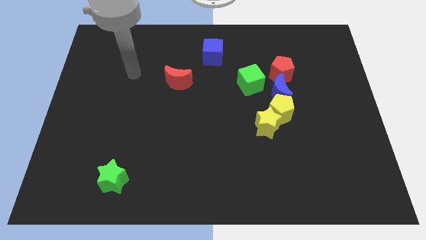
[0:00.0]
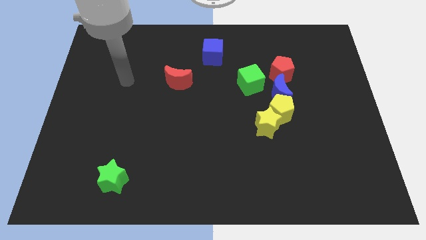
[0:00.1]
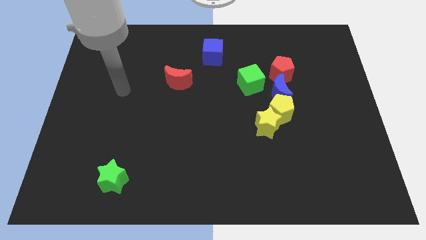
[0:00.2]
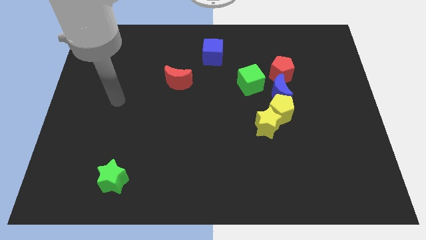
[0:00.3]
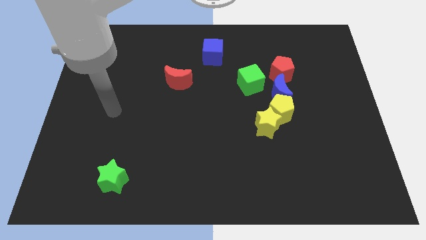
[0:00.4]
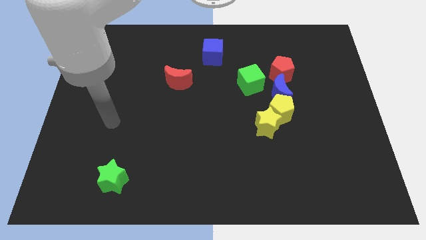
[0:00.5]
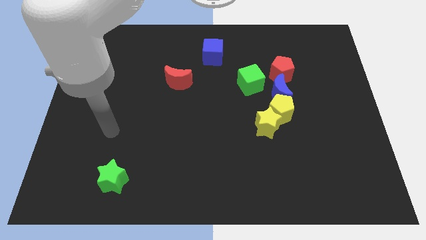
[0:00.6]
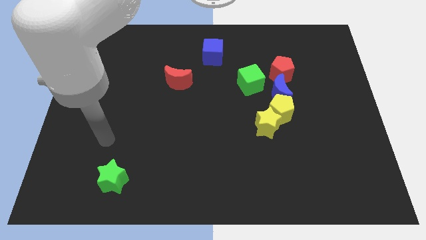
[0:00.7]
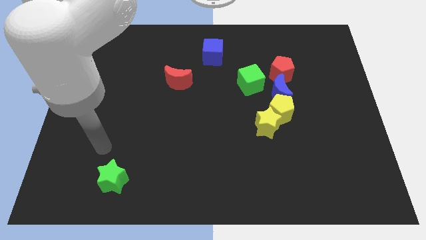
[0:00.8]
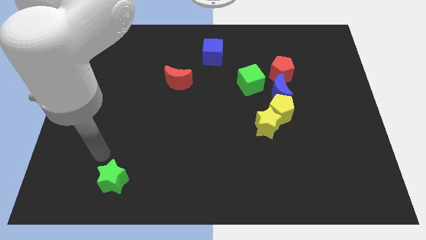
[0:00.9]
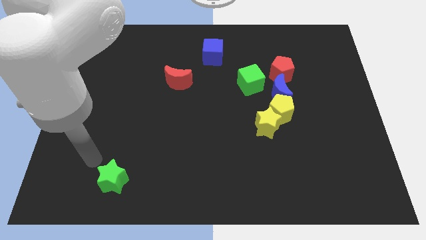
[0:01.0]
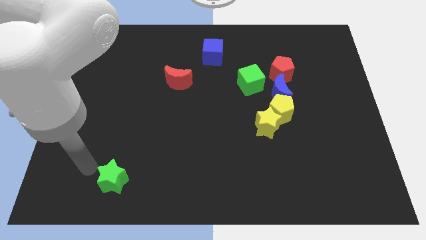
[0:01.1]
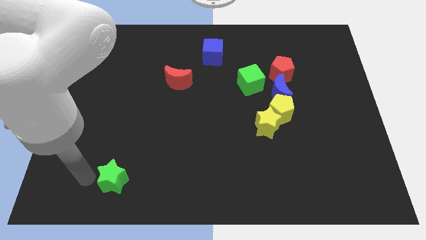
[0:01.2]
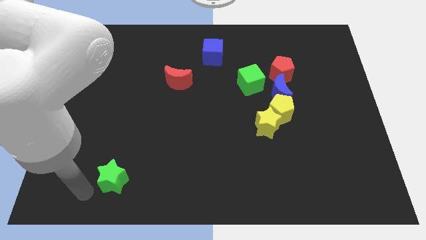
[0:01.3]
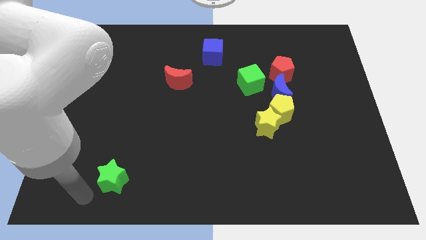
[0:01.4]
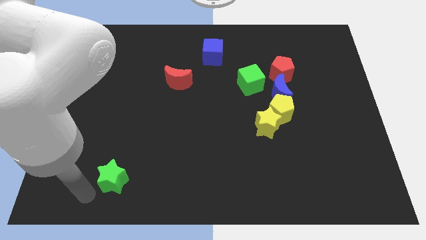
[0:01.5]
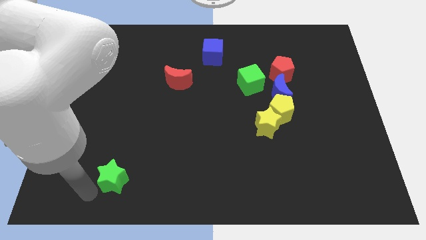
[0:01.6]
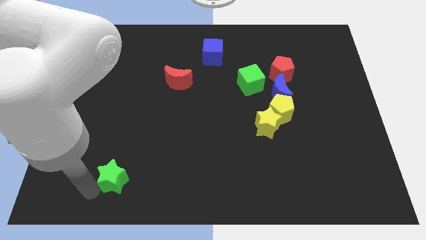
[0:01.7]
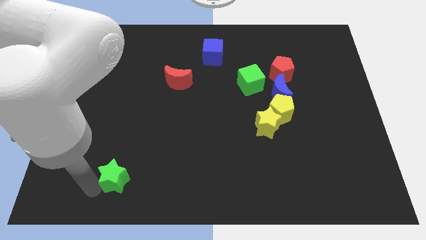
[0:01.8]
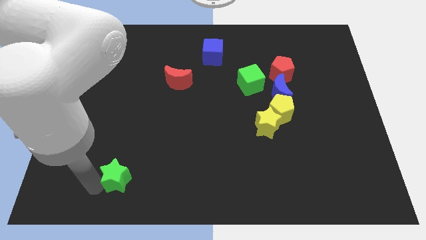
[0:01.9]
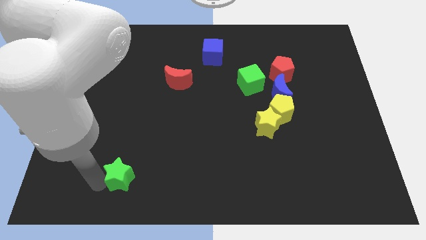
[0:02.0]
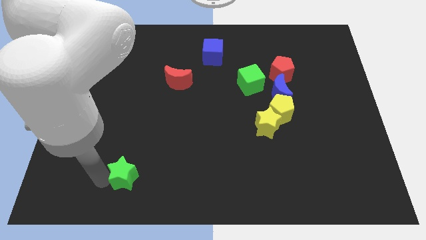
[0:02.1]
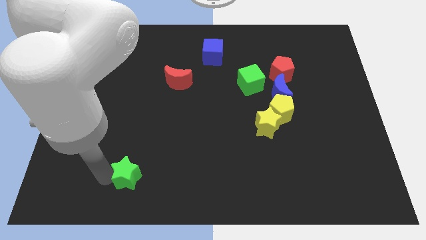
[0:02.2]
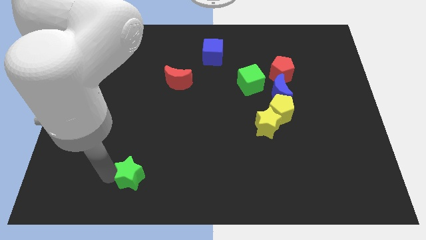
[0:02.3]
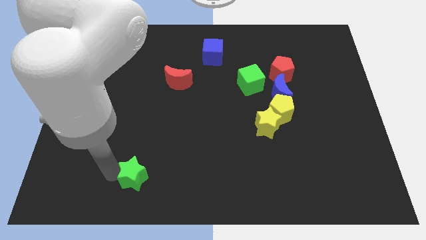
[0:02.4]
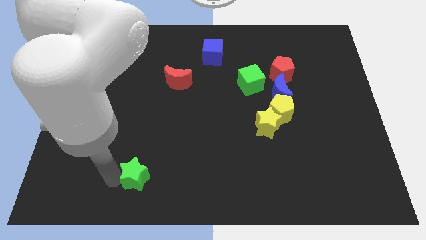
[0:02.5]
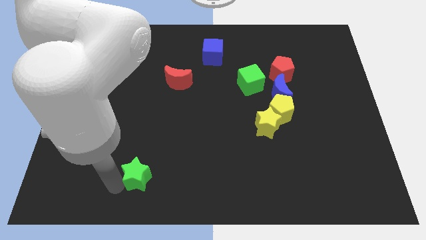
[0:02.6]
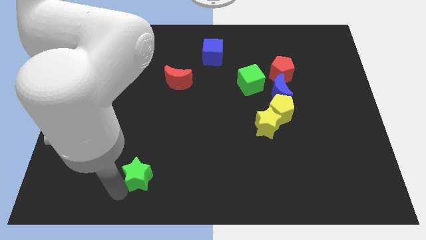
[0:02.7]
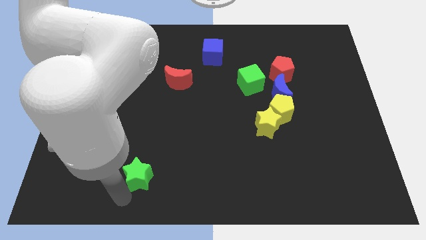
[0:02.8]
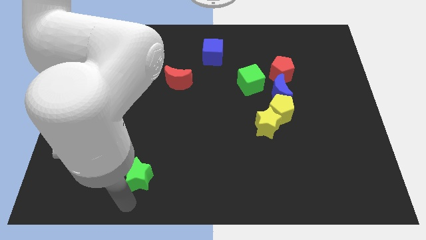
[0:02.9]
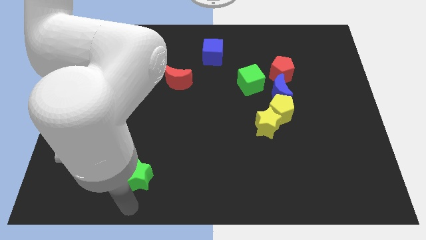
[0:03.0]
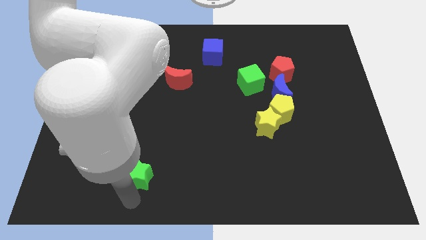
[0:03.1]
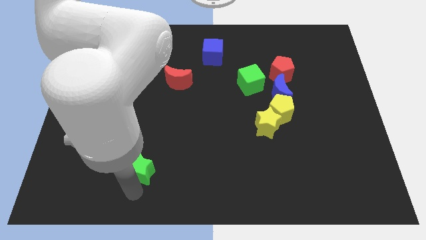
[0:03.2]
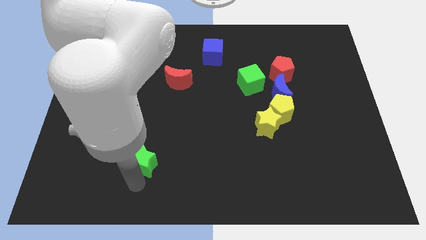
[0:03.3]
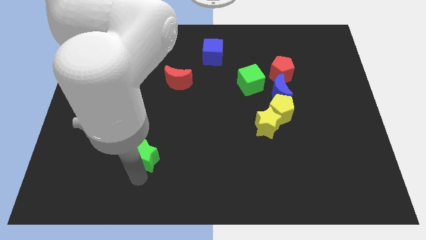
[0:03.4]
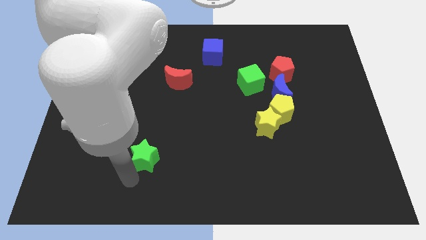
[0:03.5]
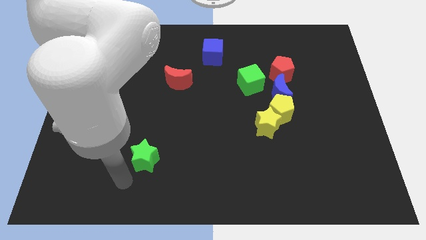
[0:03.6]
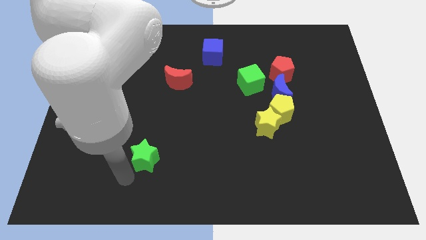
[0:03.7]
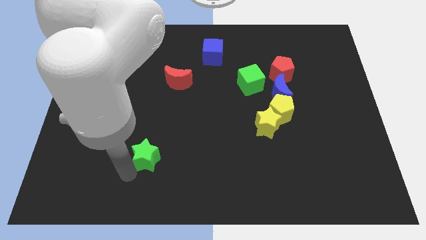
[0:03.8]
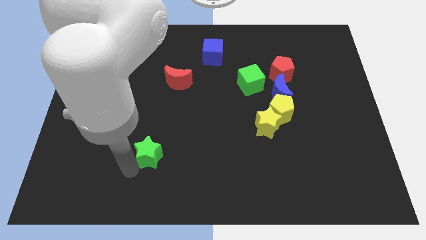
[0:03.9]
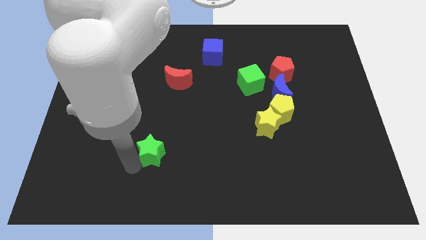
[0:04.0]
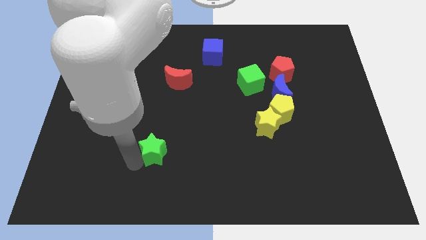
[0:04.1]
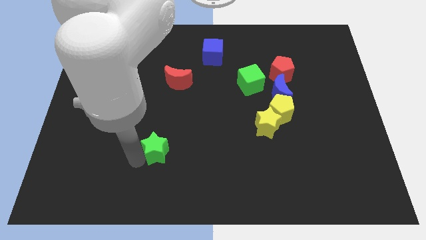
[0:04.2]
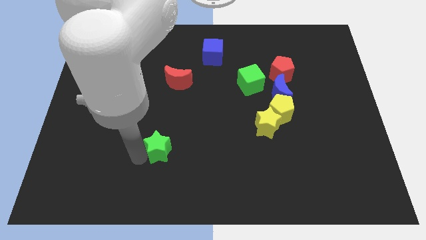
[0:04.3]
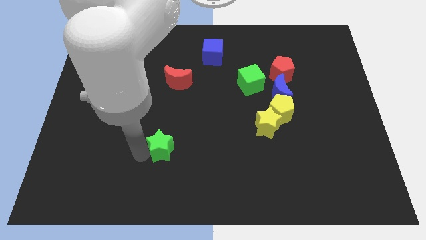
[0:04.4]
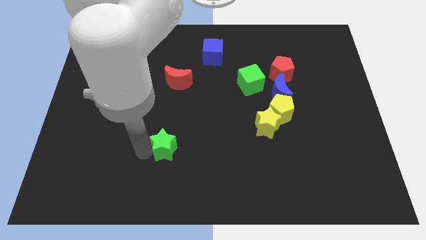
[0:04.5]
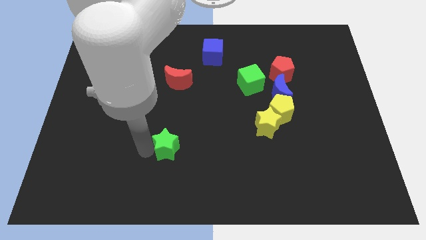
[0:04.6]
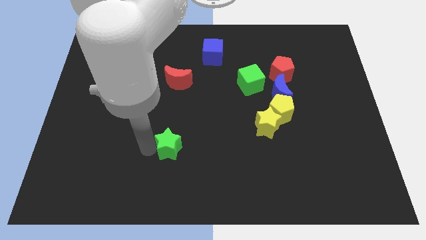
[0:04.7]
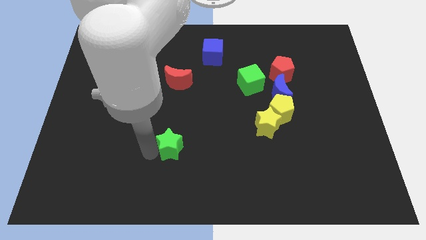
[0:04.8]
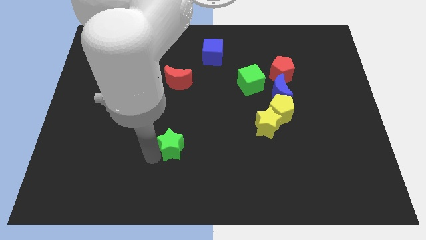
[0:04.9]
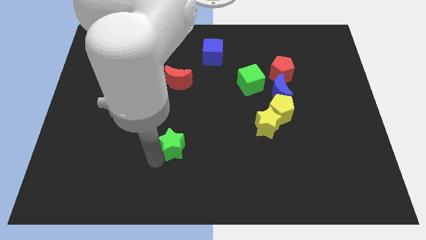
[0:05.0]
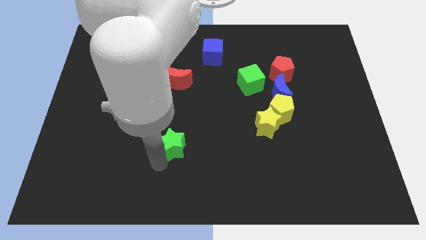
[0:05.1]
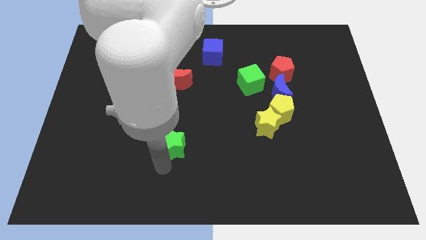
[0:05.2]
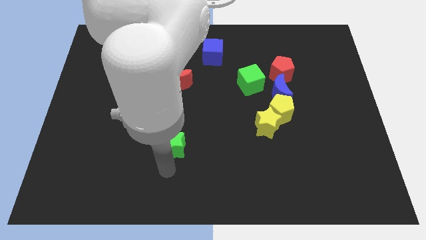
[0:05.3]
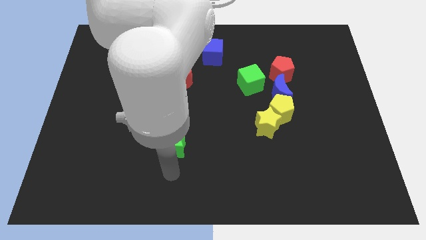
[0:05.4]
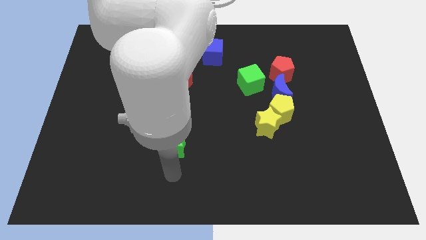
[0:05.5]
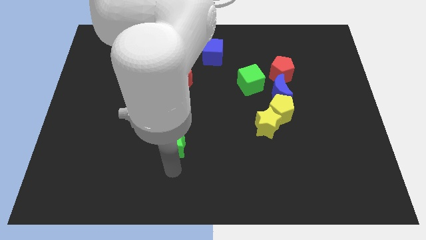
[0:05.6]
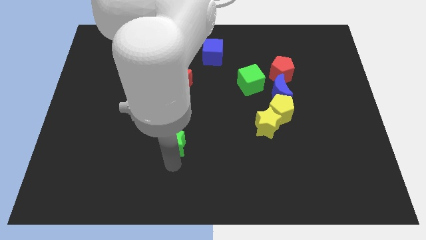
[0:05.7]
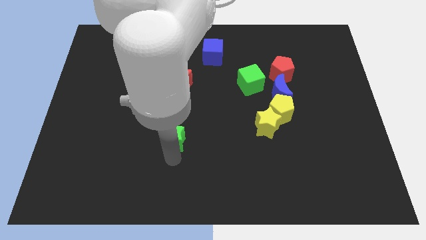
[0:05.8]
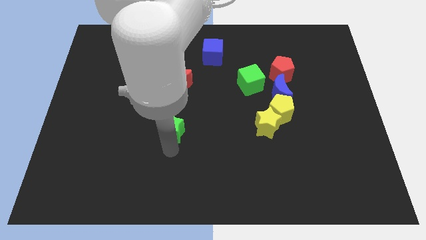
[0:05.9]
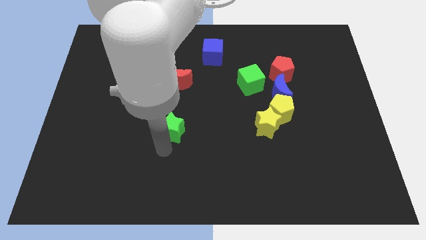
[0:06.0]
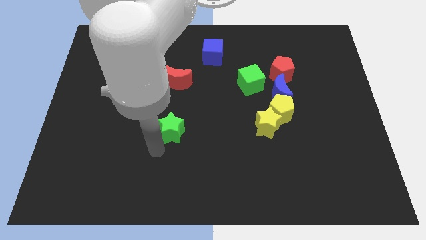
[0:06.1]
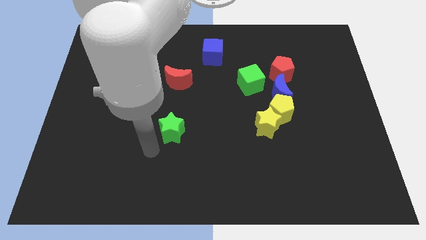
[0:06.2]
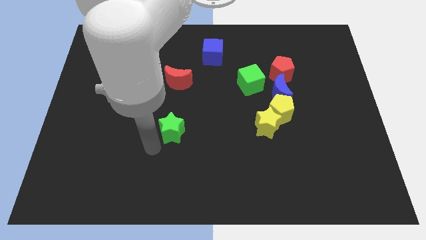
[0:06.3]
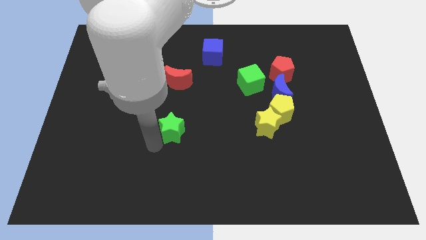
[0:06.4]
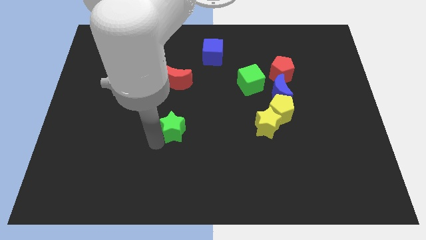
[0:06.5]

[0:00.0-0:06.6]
move the green star to the middle

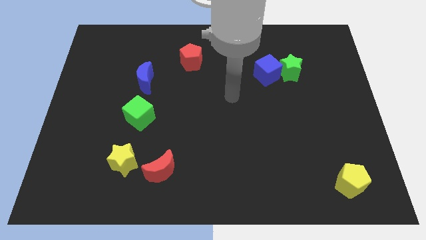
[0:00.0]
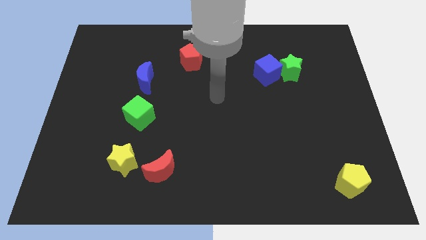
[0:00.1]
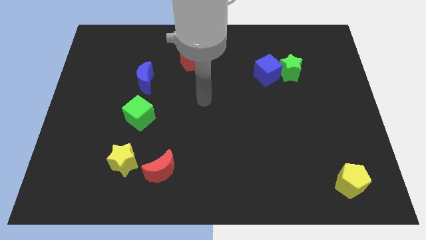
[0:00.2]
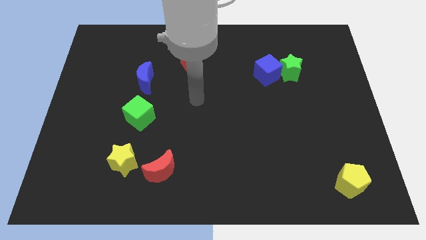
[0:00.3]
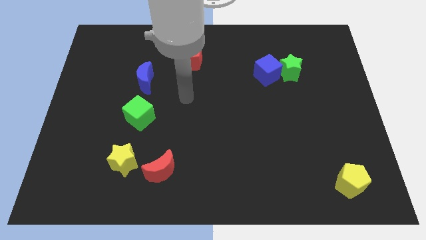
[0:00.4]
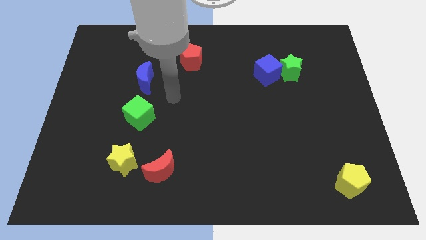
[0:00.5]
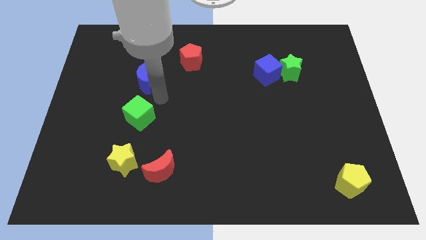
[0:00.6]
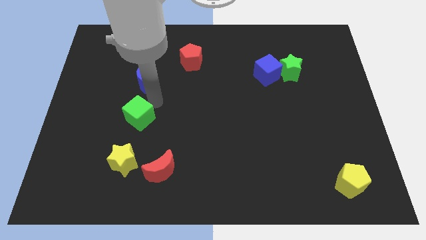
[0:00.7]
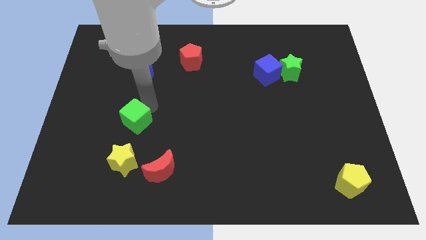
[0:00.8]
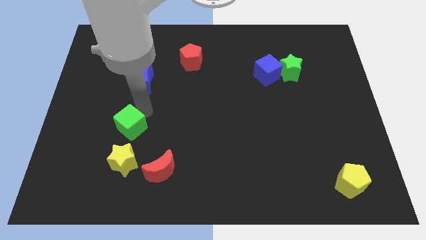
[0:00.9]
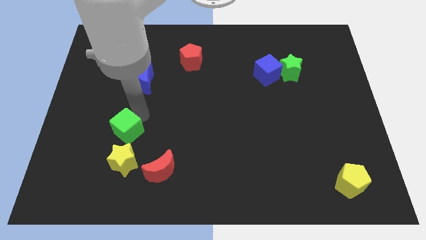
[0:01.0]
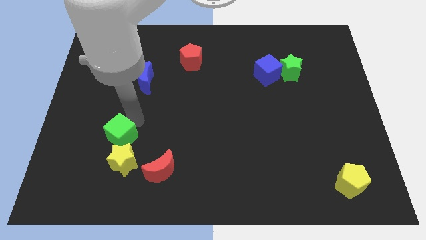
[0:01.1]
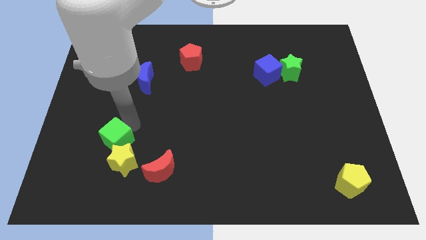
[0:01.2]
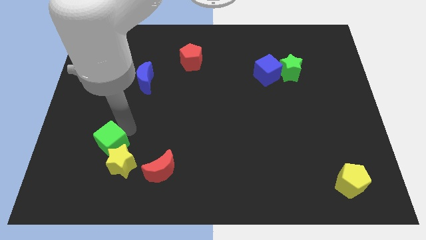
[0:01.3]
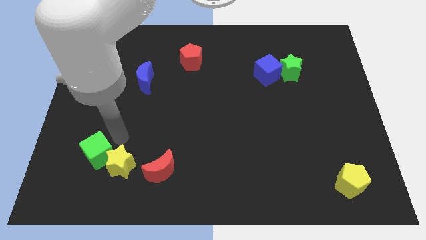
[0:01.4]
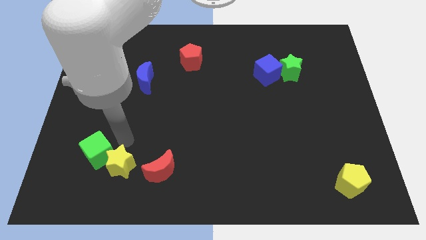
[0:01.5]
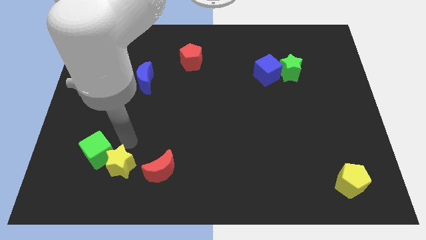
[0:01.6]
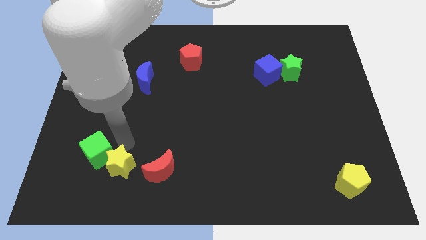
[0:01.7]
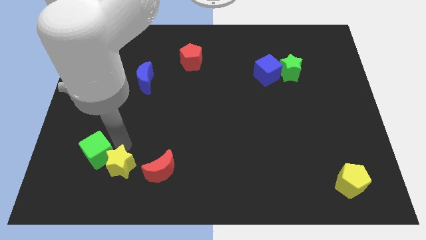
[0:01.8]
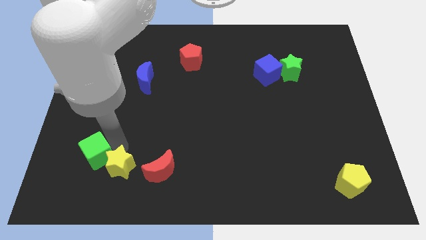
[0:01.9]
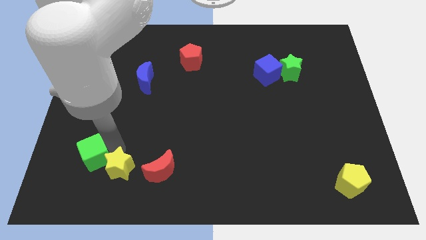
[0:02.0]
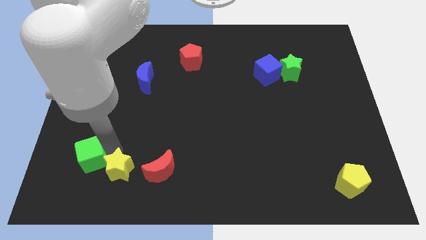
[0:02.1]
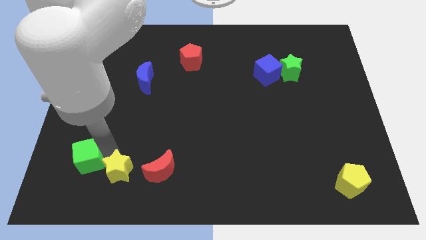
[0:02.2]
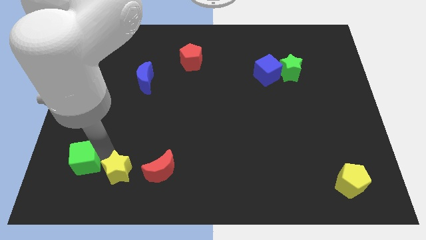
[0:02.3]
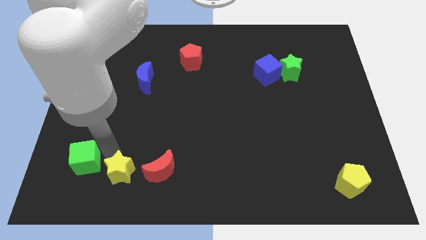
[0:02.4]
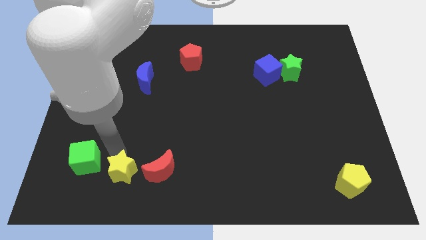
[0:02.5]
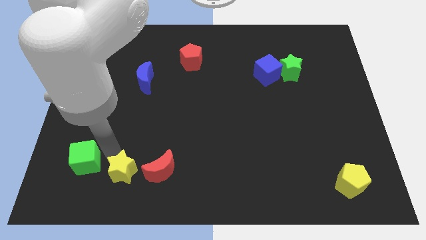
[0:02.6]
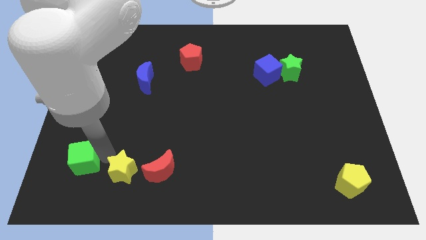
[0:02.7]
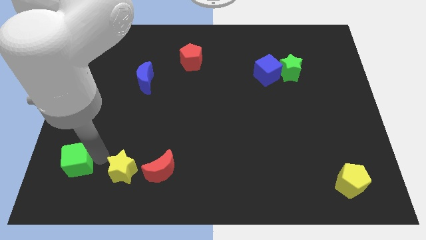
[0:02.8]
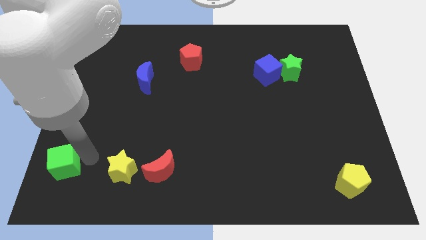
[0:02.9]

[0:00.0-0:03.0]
slide the green cube to the lower left corner
